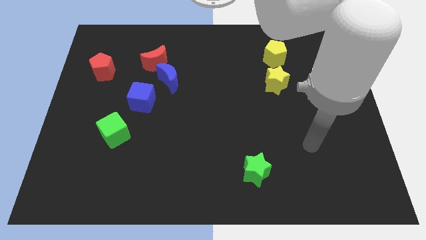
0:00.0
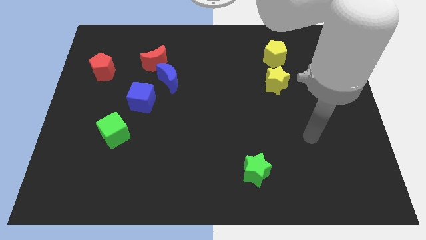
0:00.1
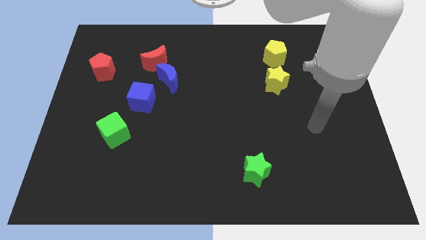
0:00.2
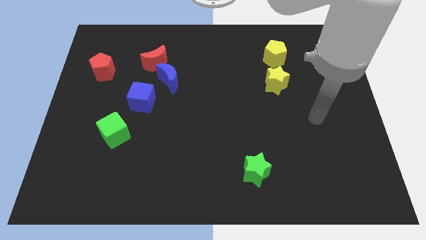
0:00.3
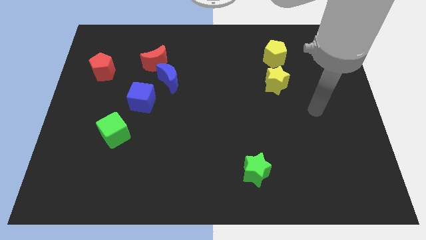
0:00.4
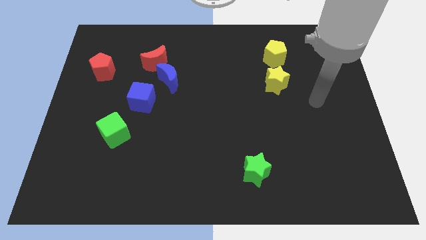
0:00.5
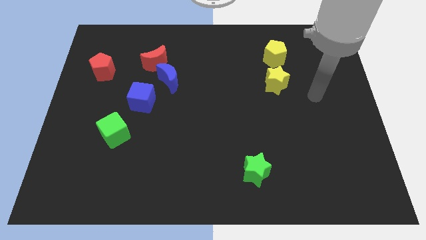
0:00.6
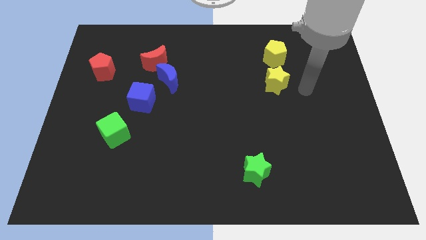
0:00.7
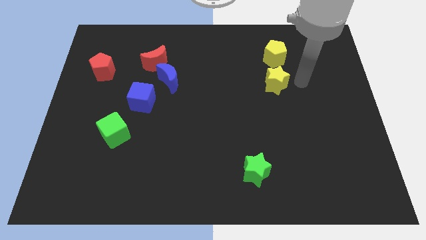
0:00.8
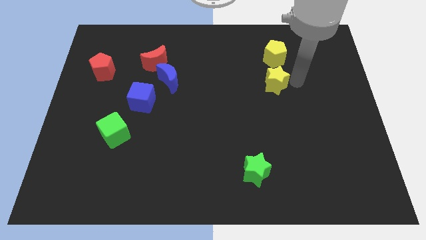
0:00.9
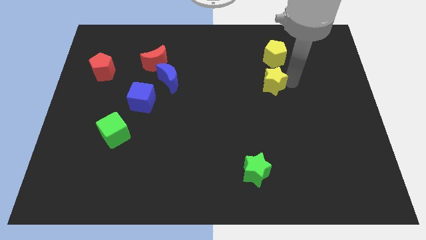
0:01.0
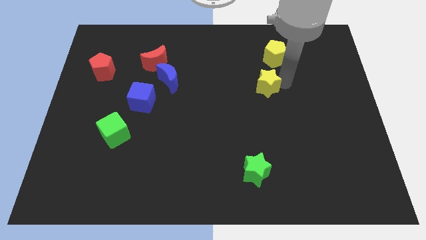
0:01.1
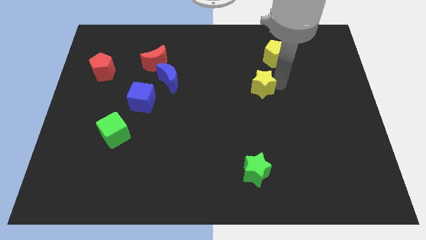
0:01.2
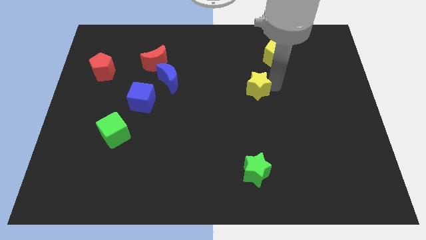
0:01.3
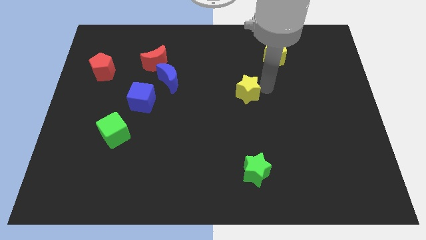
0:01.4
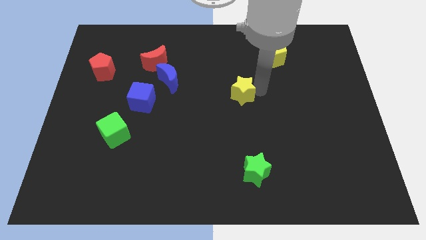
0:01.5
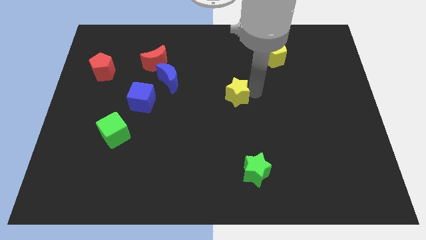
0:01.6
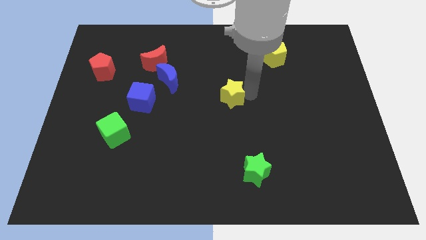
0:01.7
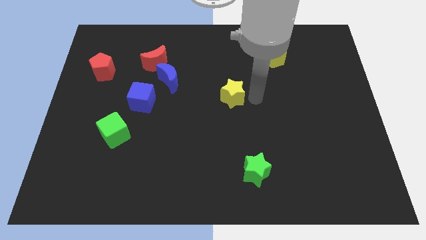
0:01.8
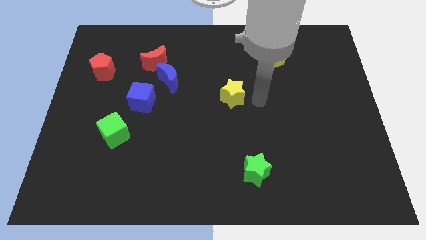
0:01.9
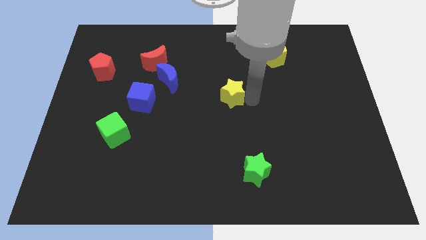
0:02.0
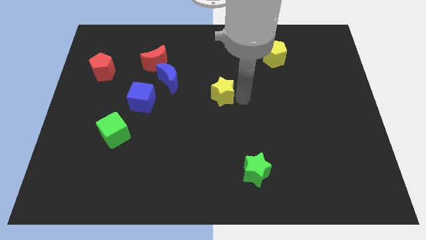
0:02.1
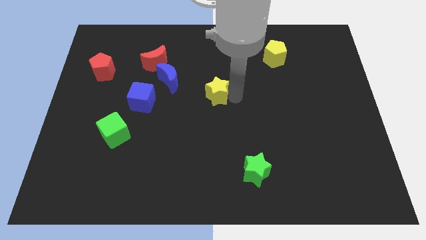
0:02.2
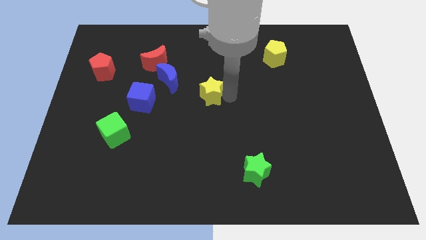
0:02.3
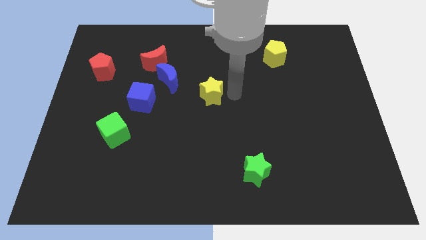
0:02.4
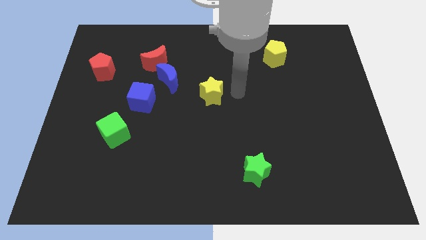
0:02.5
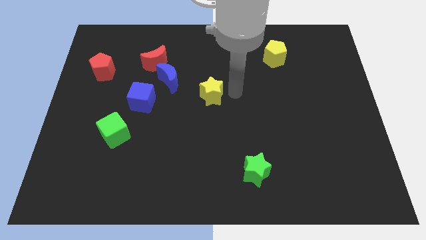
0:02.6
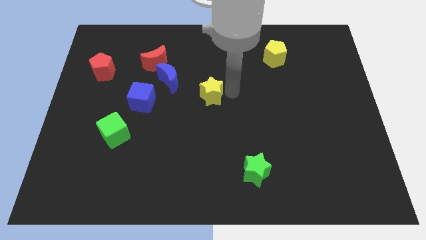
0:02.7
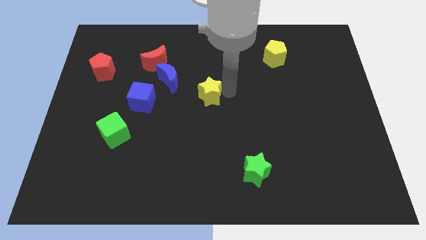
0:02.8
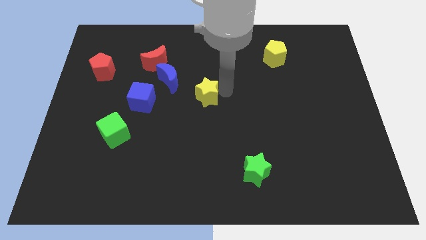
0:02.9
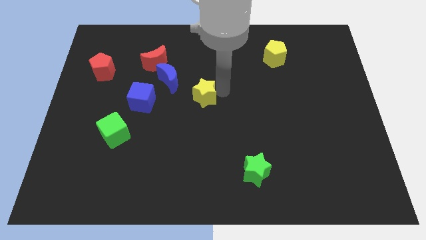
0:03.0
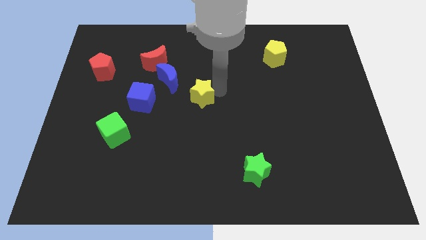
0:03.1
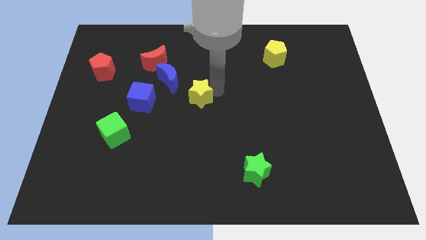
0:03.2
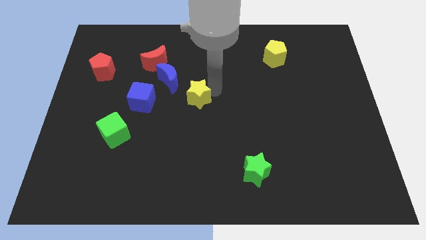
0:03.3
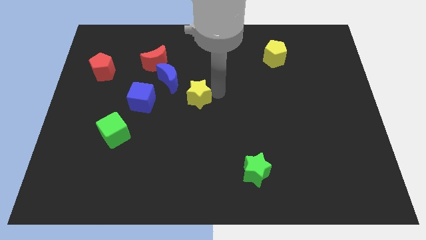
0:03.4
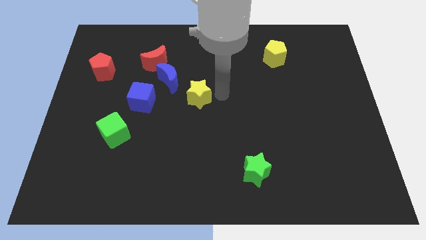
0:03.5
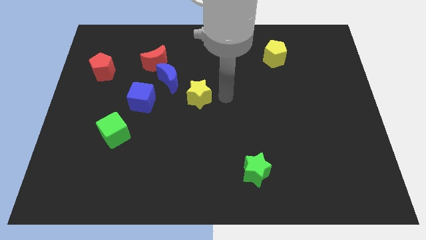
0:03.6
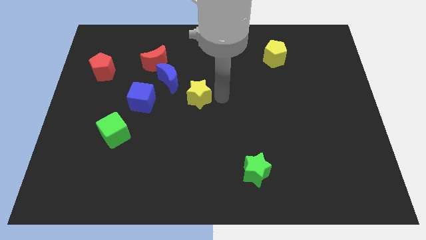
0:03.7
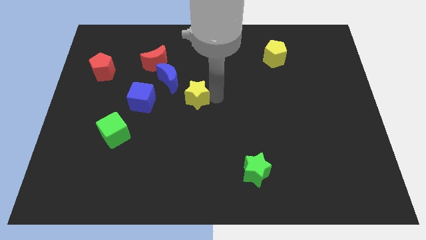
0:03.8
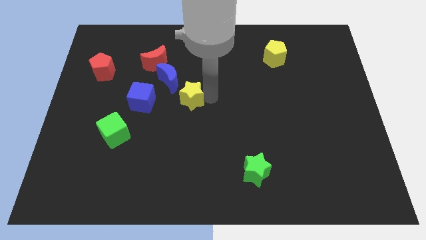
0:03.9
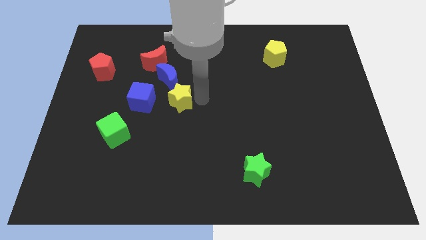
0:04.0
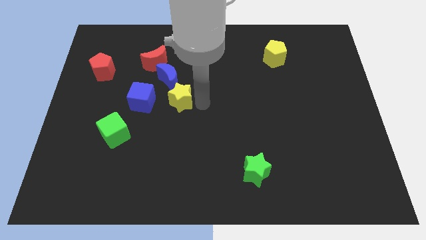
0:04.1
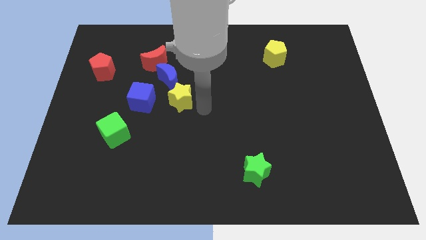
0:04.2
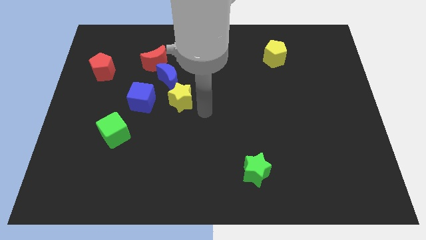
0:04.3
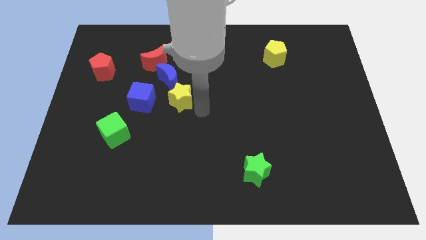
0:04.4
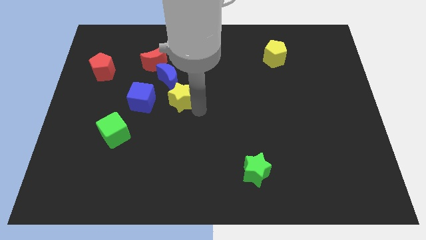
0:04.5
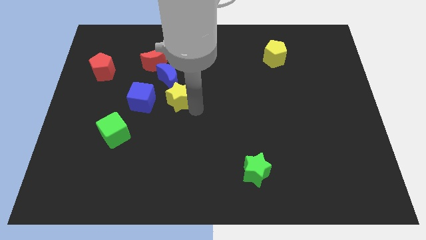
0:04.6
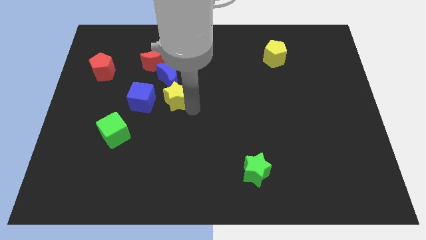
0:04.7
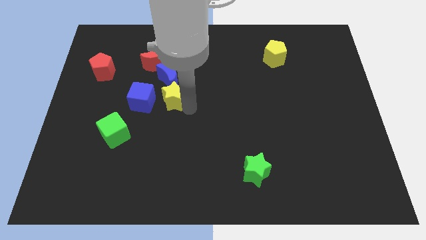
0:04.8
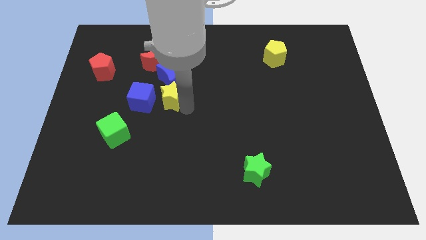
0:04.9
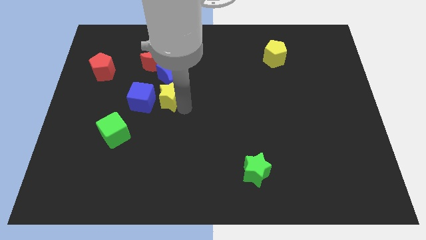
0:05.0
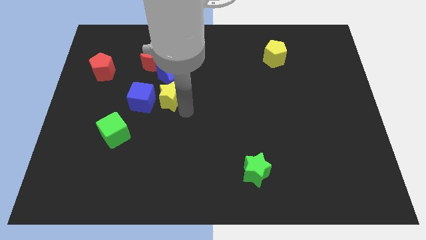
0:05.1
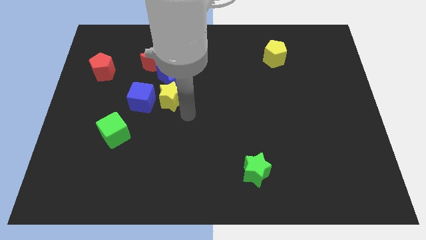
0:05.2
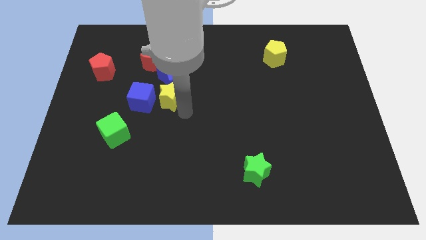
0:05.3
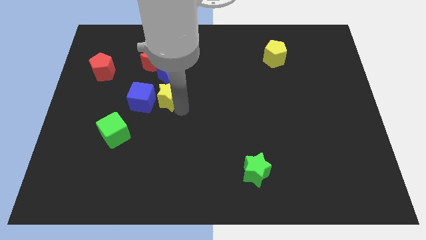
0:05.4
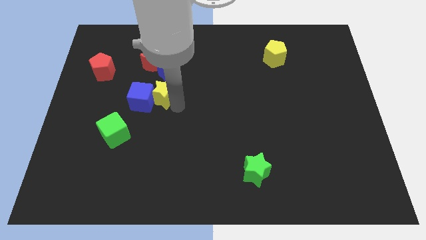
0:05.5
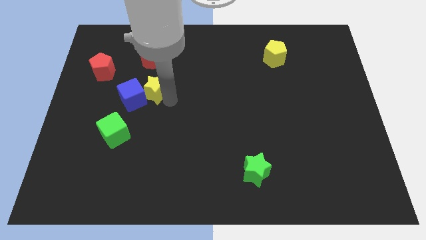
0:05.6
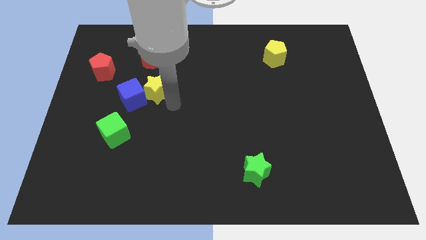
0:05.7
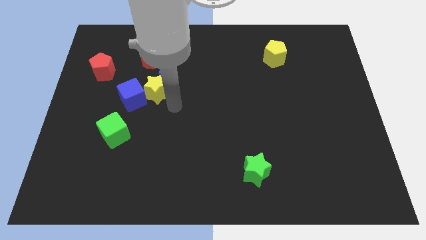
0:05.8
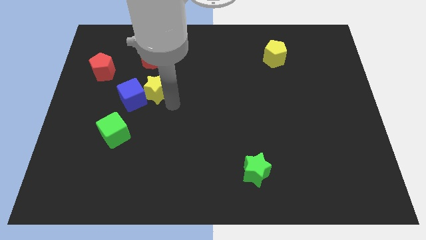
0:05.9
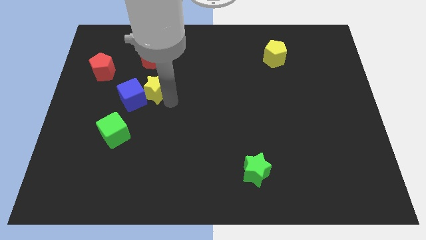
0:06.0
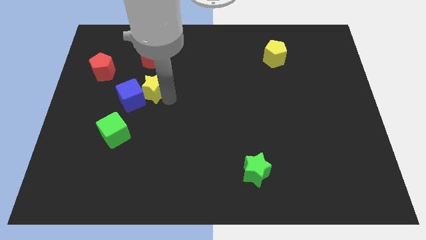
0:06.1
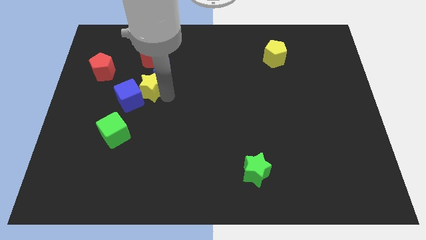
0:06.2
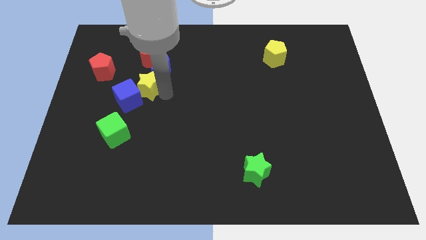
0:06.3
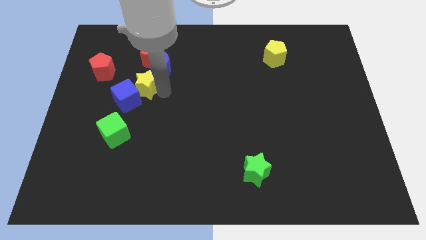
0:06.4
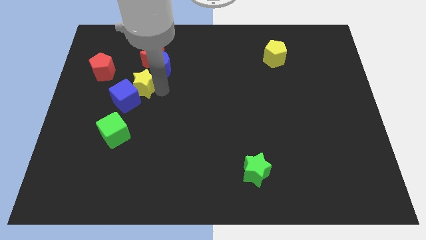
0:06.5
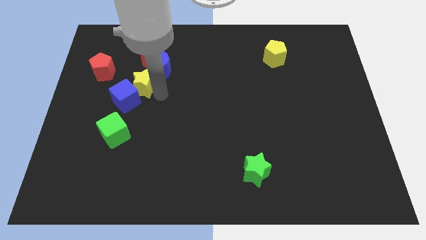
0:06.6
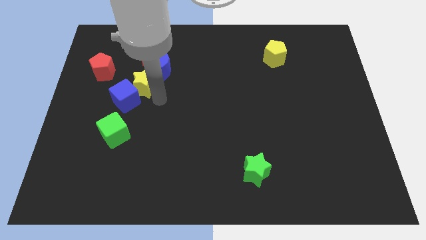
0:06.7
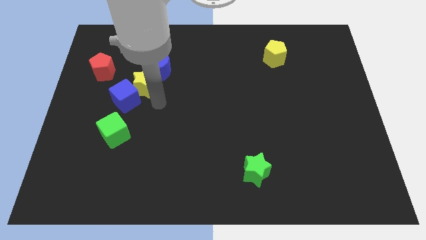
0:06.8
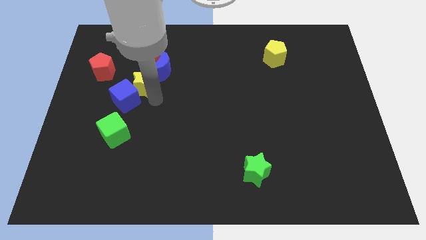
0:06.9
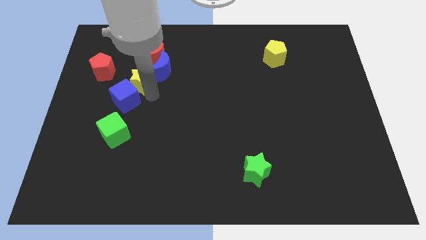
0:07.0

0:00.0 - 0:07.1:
put the yellow star to the bottom left of the red moon
